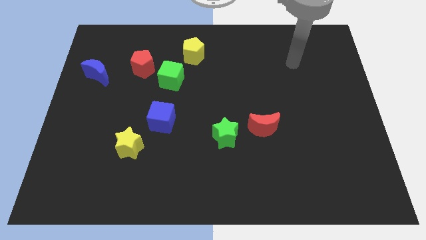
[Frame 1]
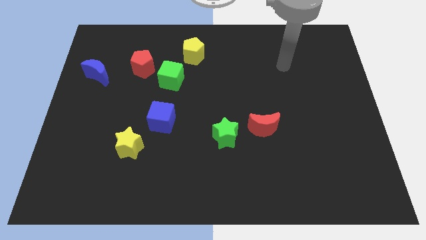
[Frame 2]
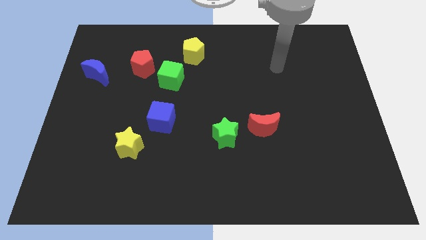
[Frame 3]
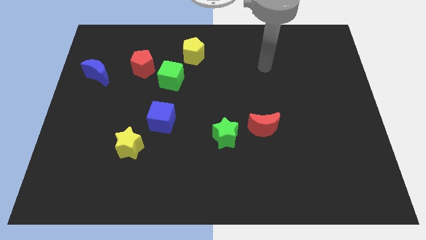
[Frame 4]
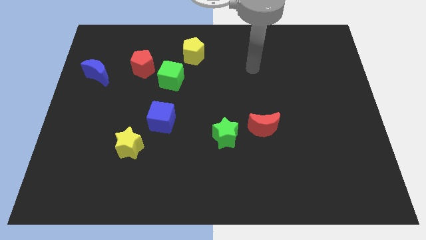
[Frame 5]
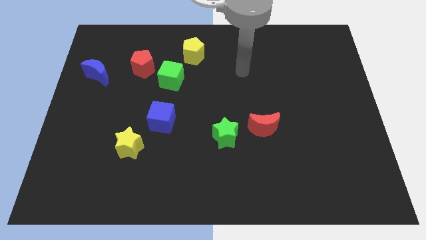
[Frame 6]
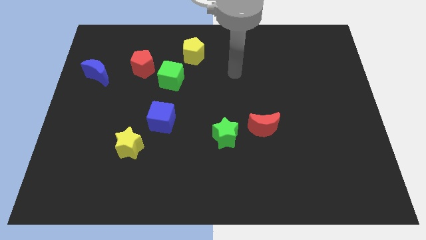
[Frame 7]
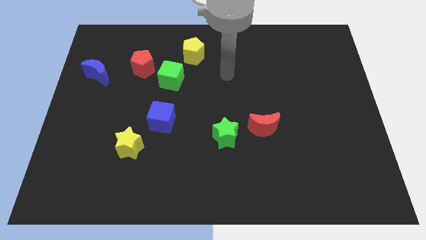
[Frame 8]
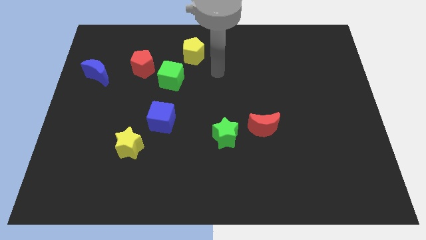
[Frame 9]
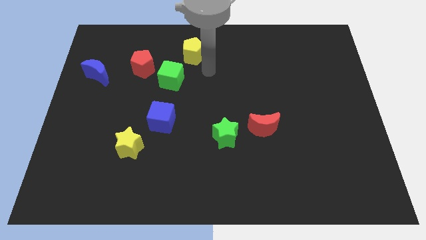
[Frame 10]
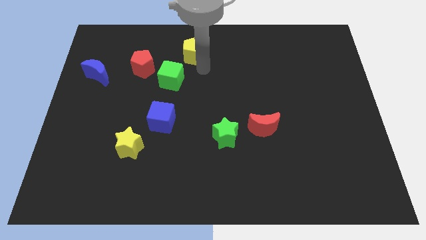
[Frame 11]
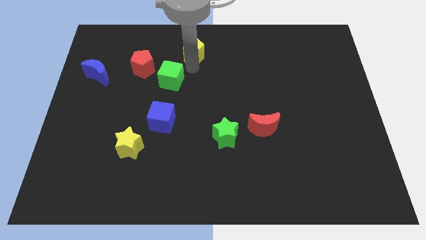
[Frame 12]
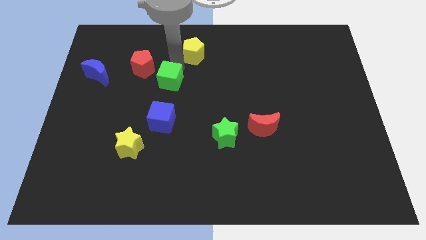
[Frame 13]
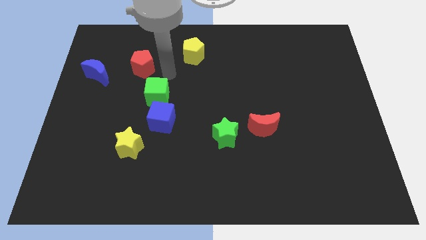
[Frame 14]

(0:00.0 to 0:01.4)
move the red pentagon away from the green cube

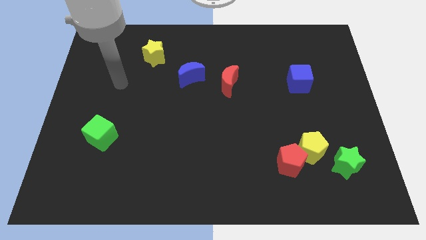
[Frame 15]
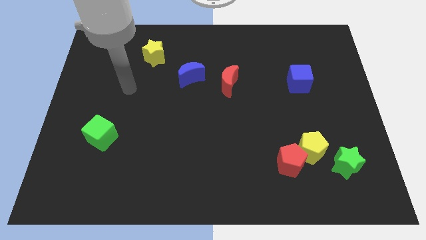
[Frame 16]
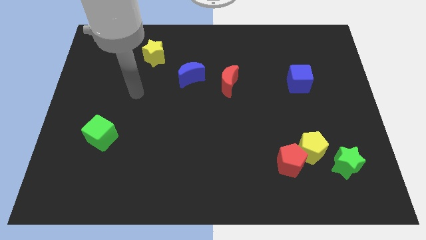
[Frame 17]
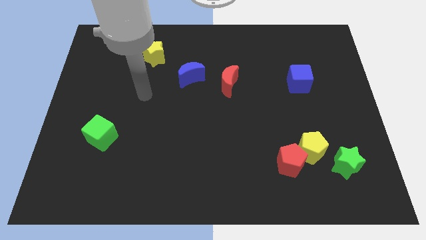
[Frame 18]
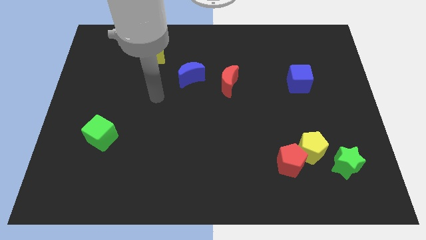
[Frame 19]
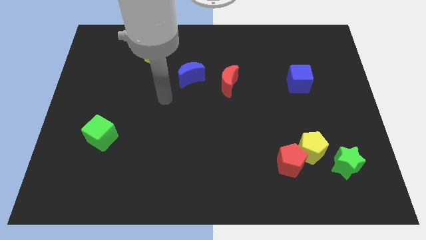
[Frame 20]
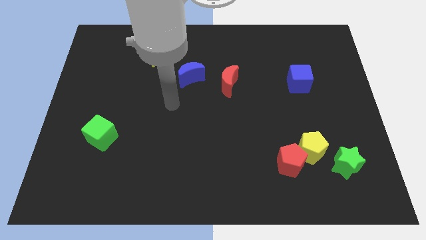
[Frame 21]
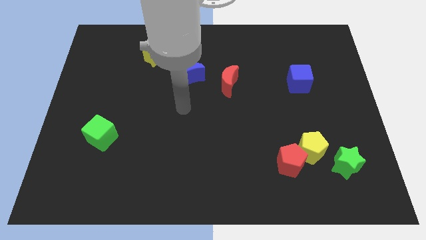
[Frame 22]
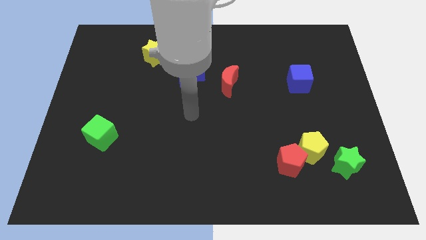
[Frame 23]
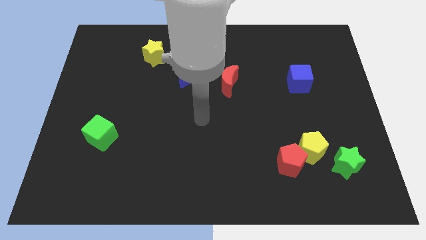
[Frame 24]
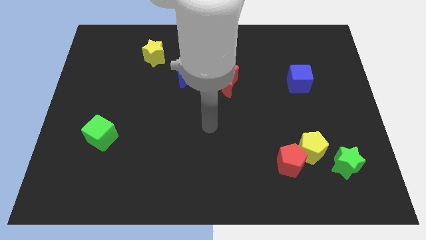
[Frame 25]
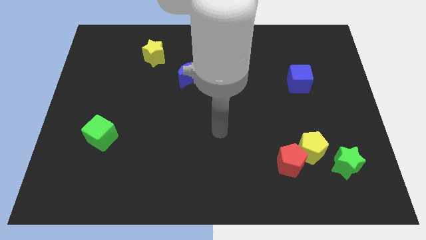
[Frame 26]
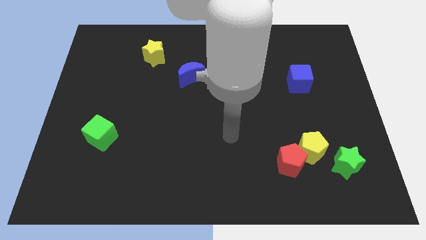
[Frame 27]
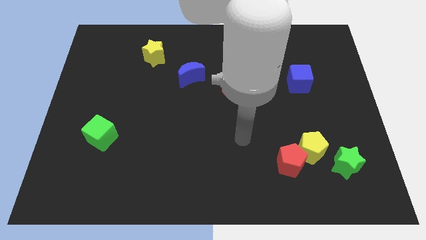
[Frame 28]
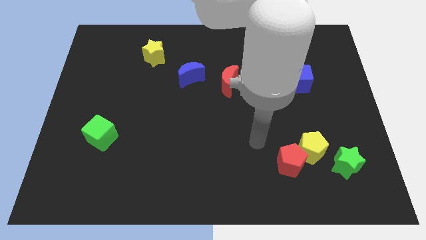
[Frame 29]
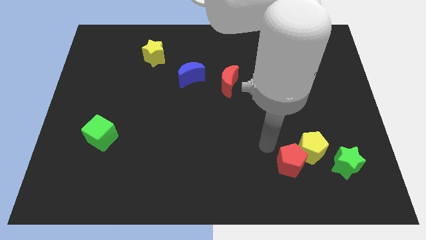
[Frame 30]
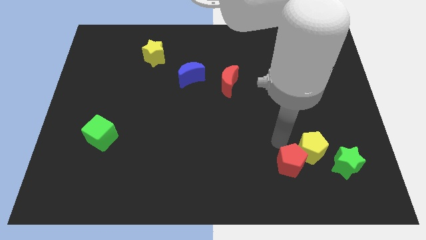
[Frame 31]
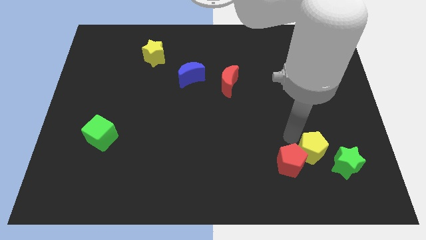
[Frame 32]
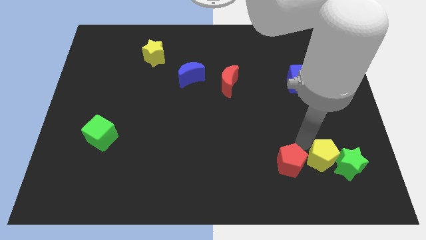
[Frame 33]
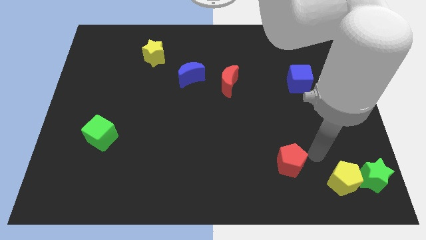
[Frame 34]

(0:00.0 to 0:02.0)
pull the red pentagon apart from the yellow pentagon

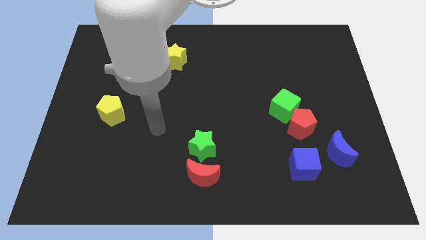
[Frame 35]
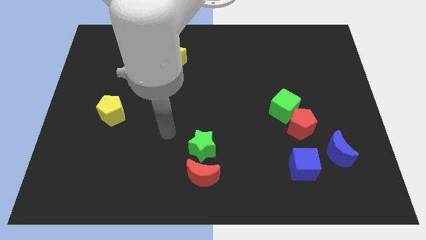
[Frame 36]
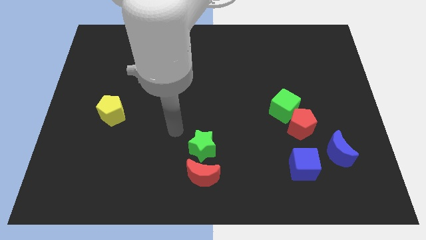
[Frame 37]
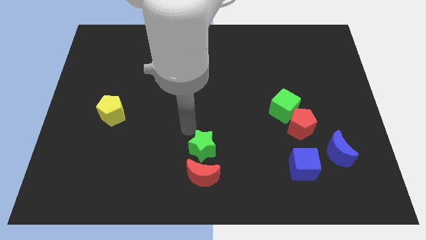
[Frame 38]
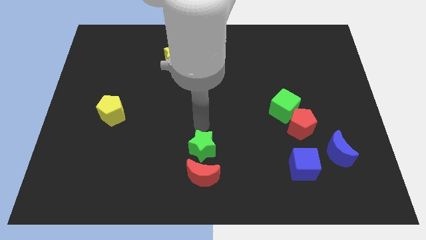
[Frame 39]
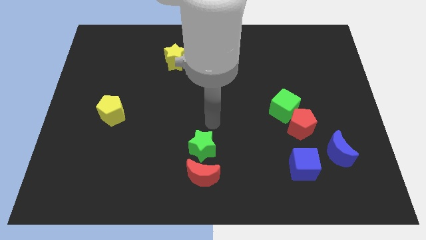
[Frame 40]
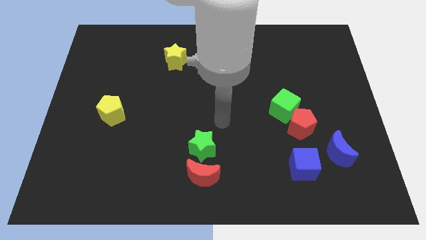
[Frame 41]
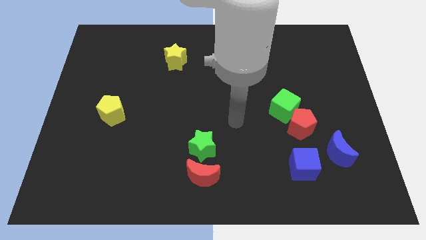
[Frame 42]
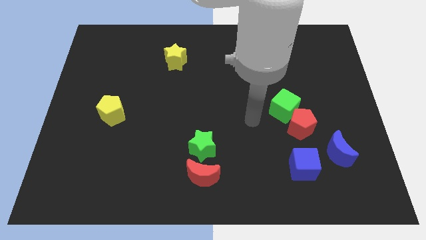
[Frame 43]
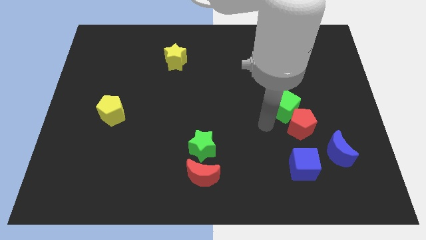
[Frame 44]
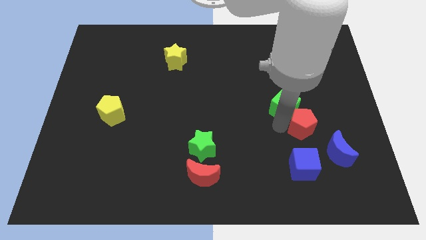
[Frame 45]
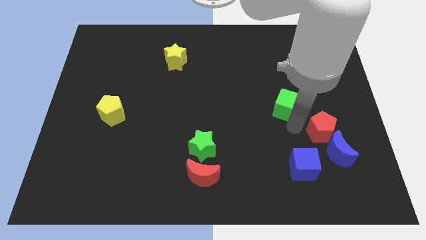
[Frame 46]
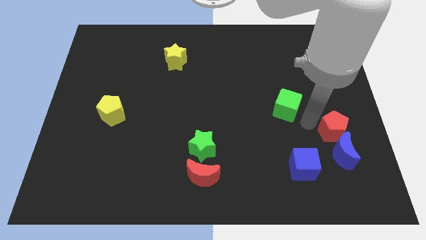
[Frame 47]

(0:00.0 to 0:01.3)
separate the green cube from the red pentagon

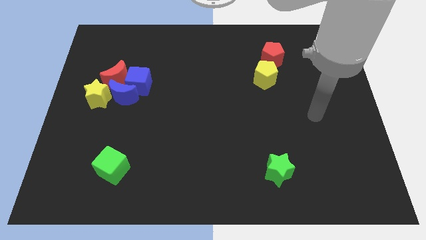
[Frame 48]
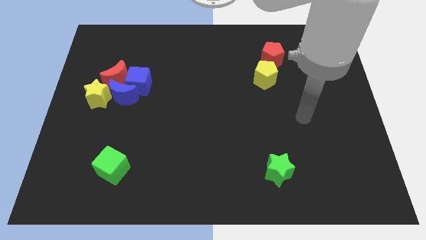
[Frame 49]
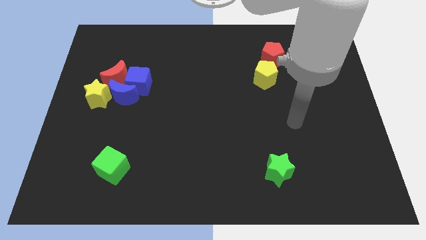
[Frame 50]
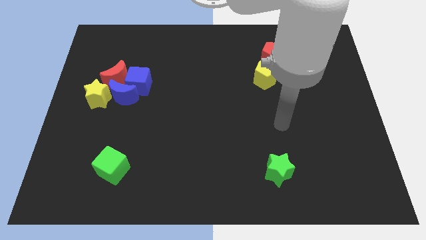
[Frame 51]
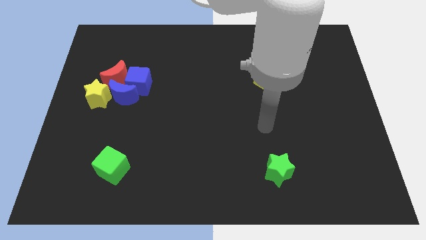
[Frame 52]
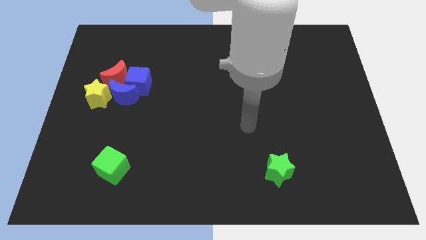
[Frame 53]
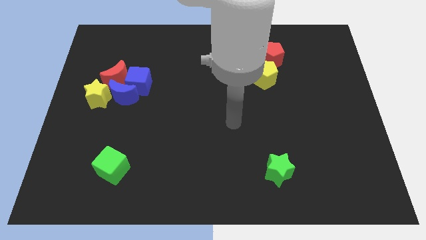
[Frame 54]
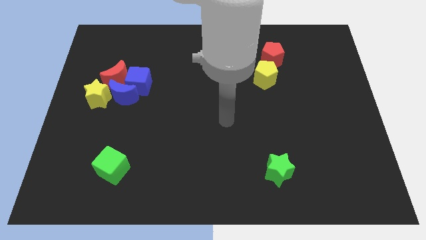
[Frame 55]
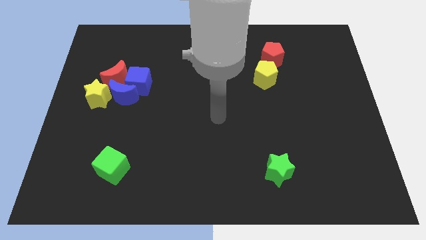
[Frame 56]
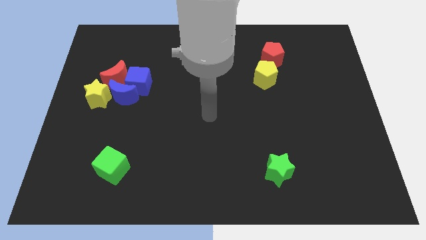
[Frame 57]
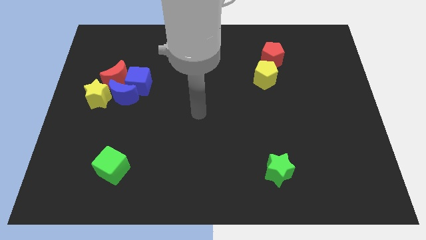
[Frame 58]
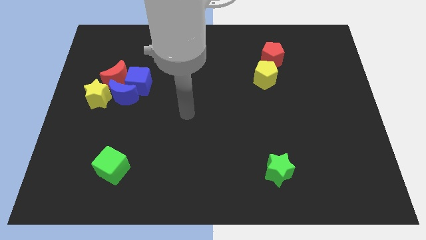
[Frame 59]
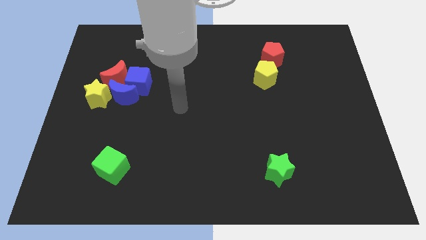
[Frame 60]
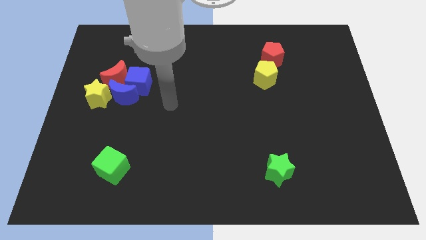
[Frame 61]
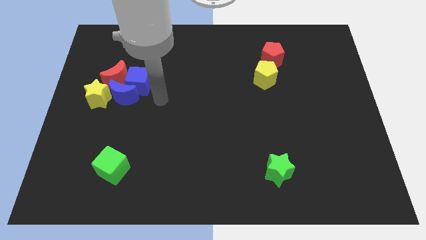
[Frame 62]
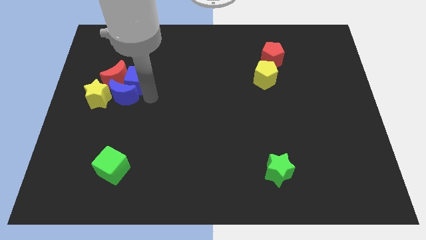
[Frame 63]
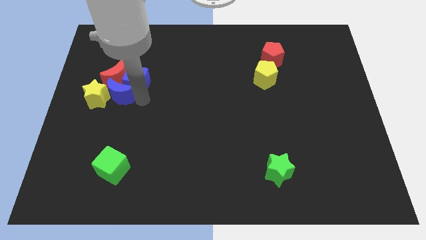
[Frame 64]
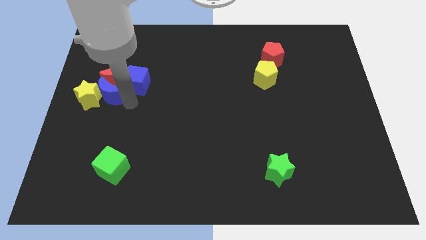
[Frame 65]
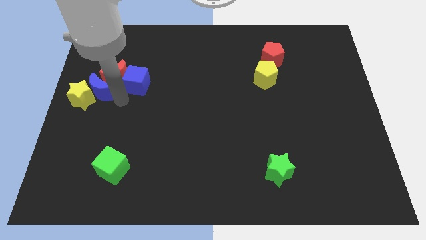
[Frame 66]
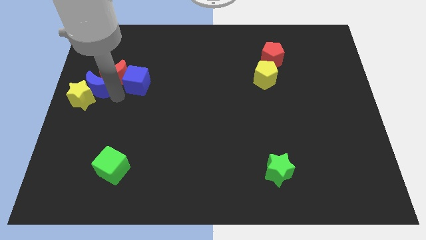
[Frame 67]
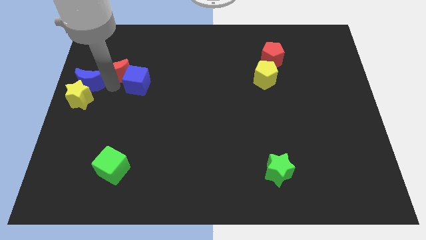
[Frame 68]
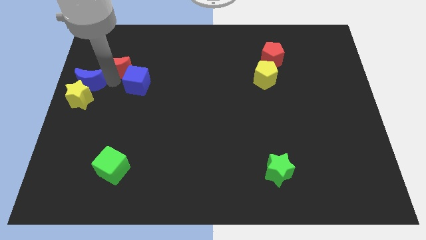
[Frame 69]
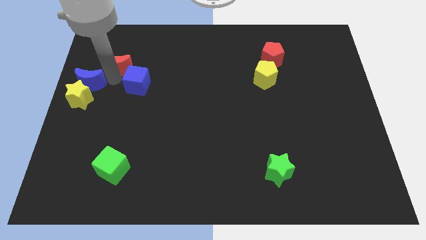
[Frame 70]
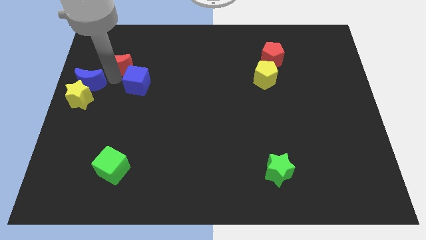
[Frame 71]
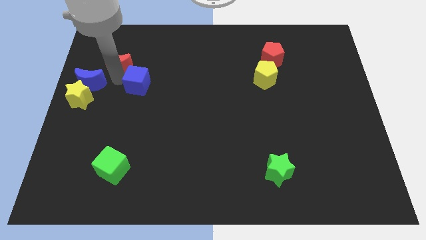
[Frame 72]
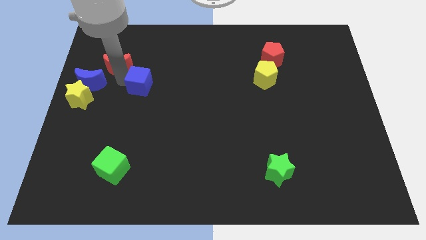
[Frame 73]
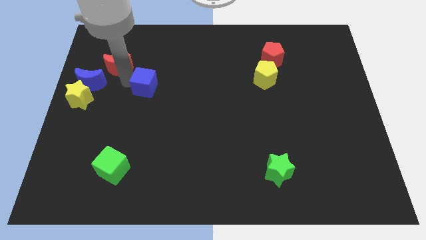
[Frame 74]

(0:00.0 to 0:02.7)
separate the blue cube from the blue moon and red moon

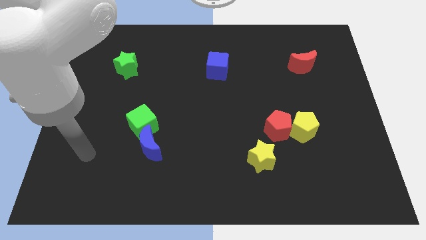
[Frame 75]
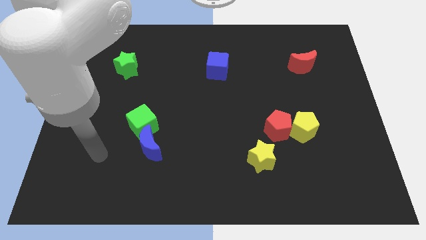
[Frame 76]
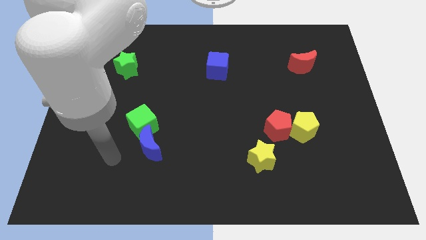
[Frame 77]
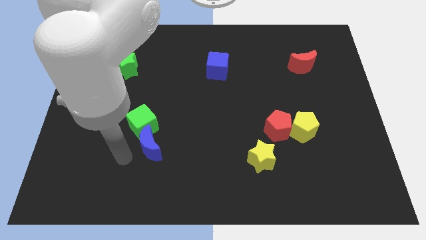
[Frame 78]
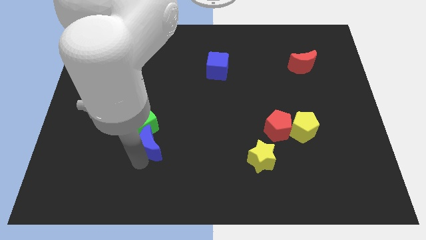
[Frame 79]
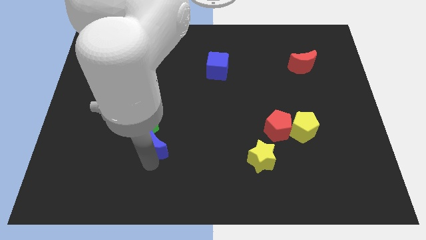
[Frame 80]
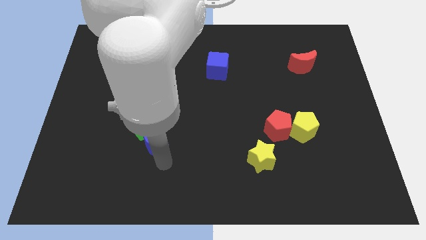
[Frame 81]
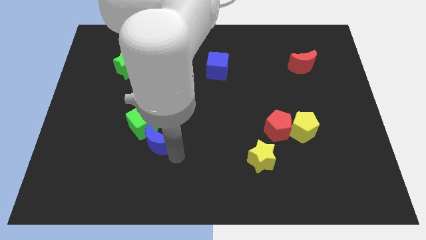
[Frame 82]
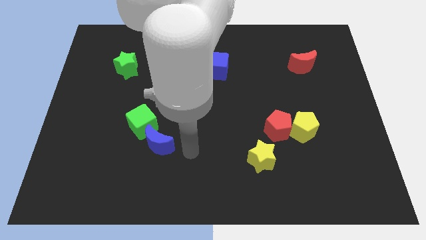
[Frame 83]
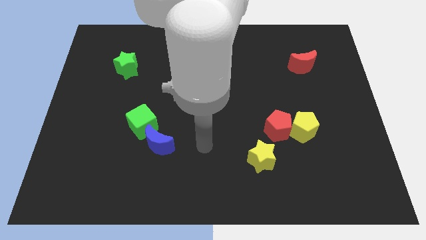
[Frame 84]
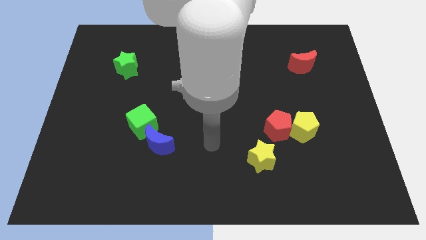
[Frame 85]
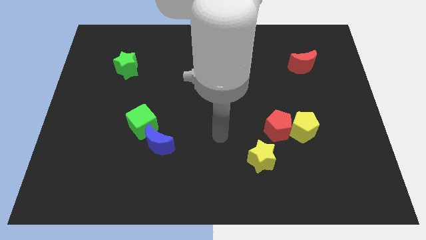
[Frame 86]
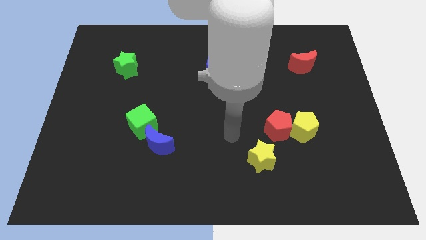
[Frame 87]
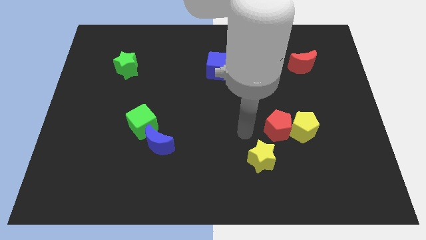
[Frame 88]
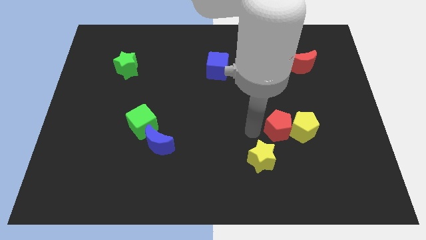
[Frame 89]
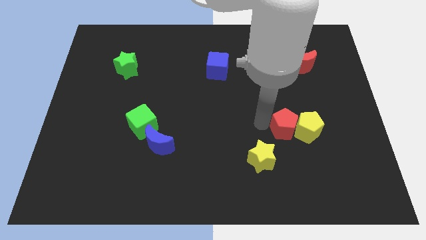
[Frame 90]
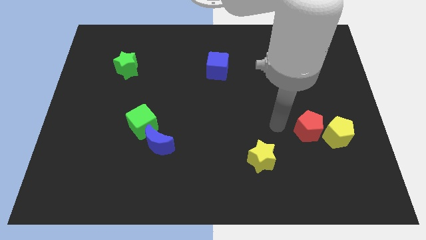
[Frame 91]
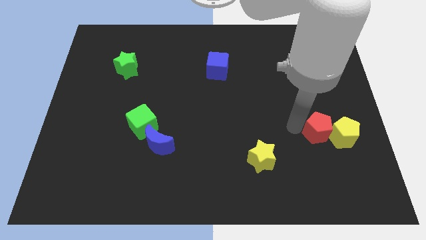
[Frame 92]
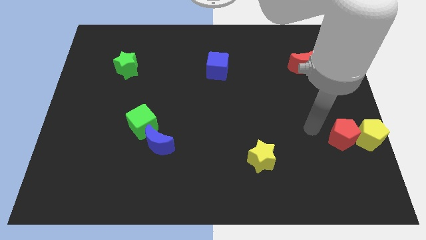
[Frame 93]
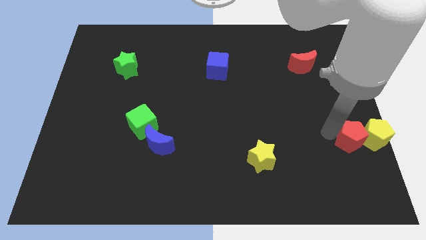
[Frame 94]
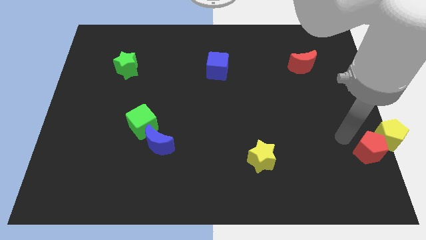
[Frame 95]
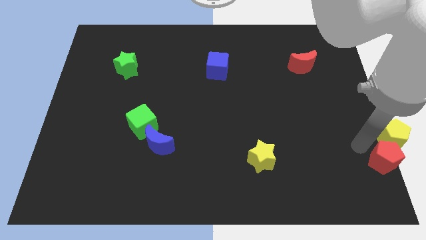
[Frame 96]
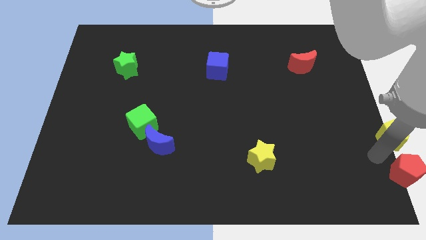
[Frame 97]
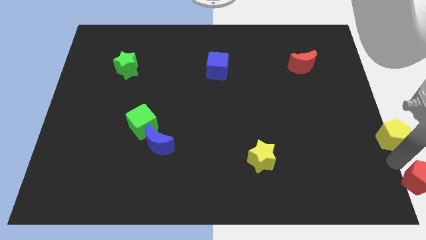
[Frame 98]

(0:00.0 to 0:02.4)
pull the yellow pentagon apart from the red pentagon
